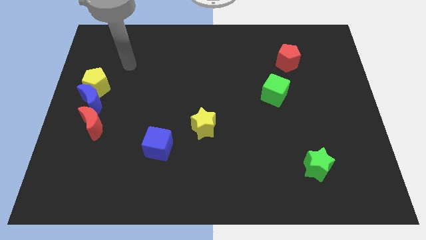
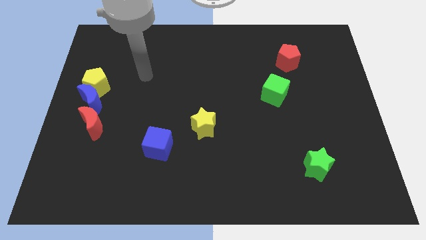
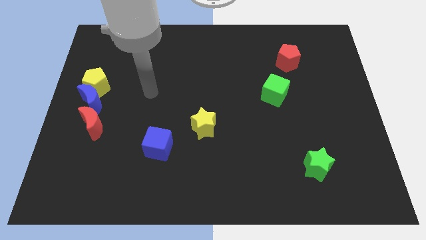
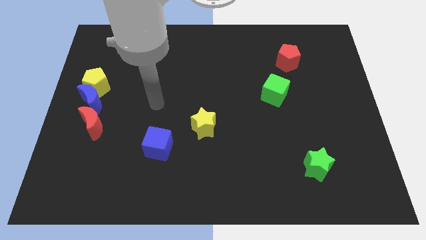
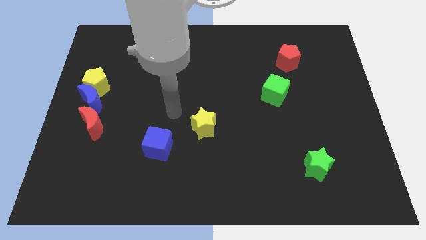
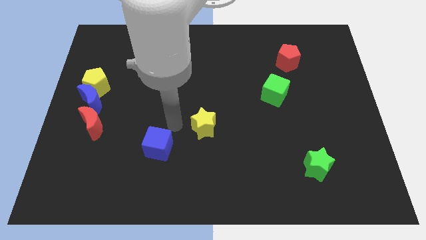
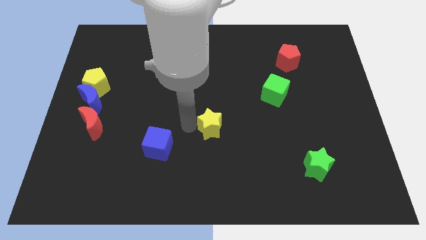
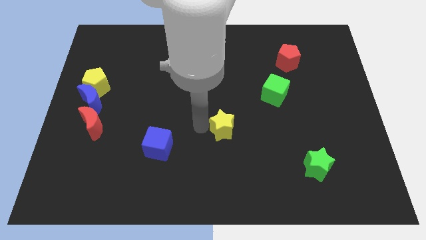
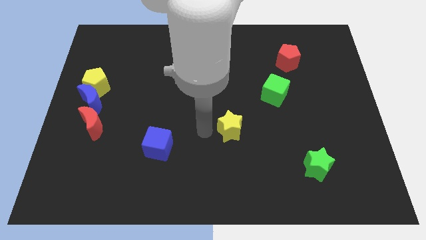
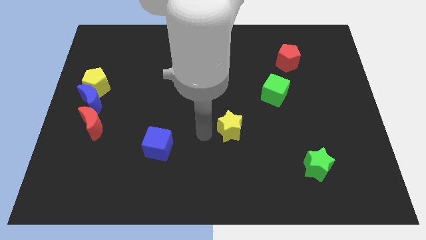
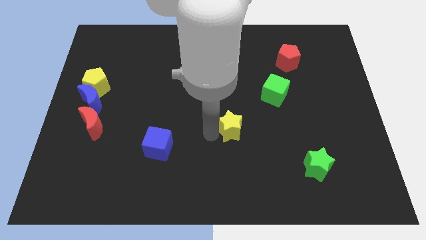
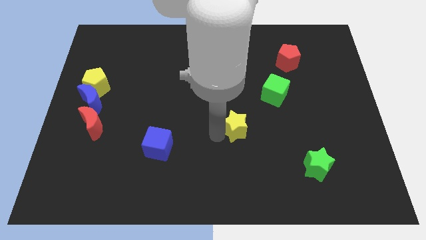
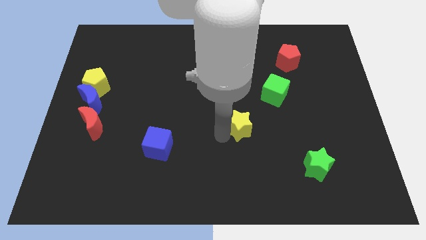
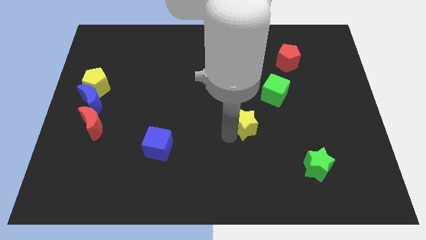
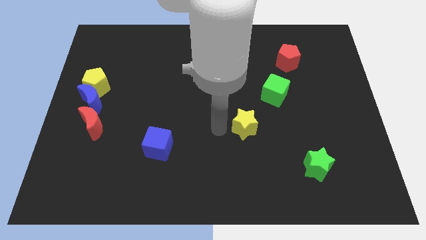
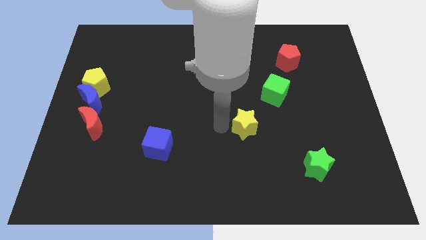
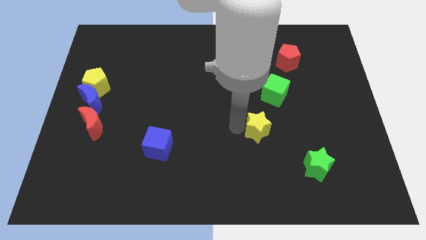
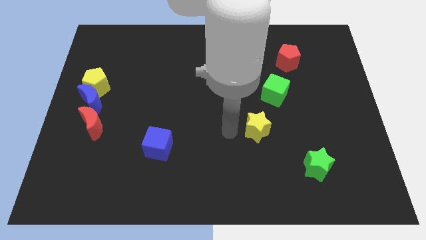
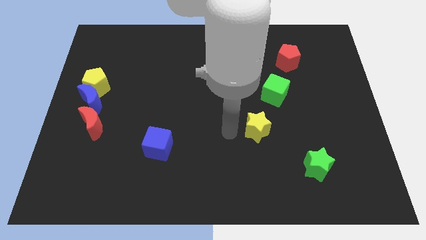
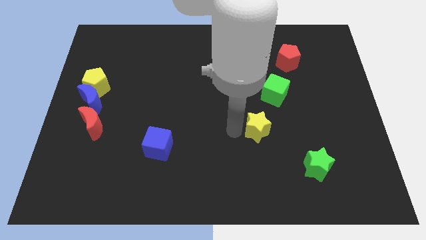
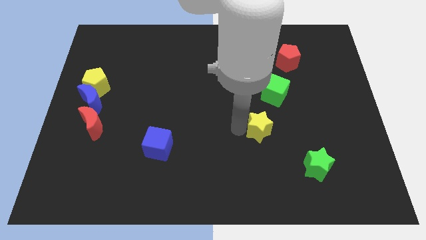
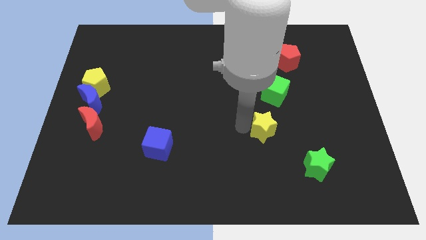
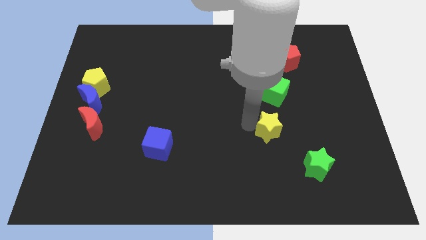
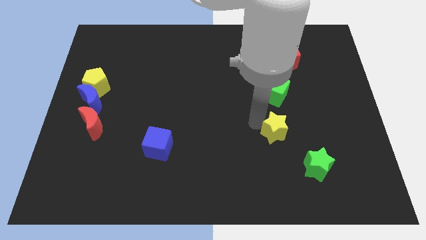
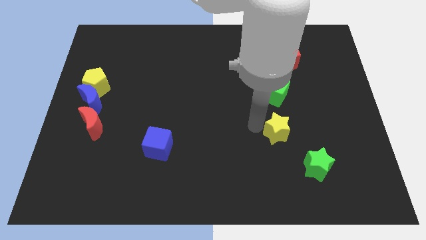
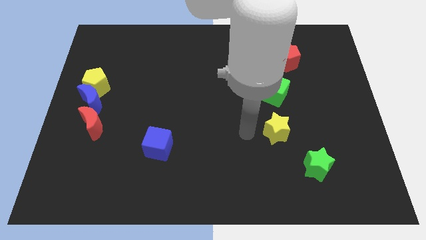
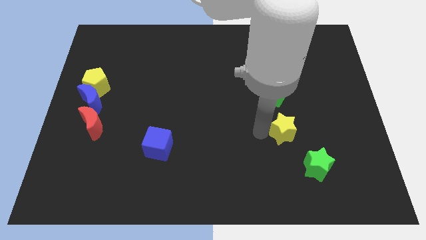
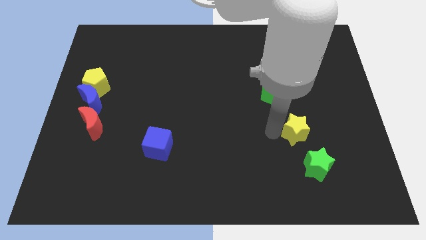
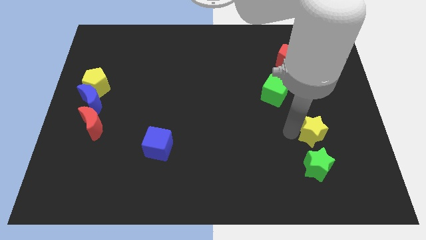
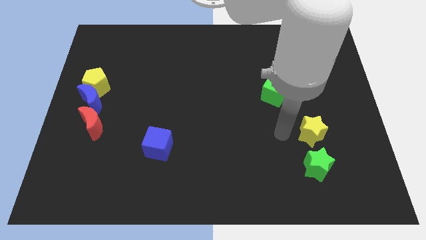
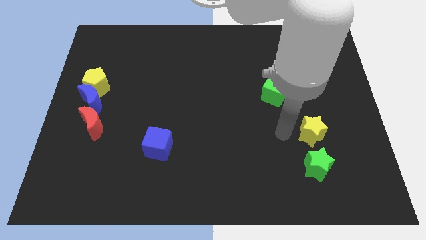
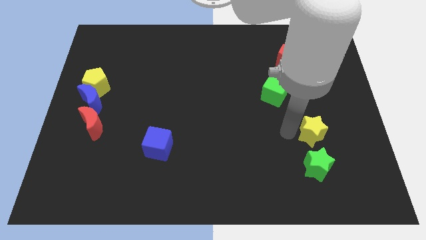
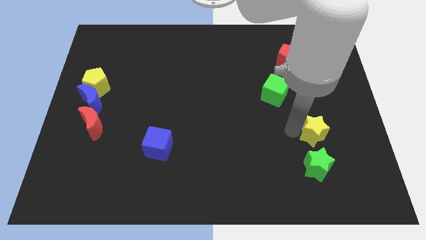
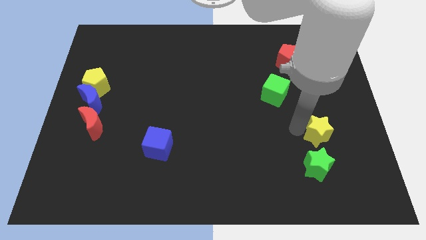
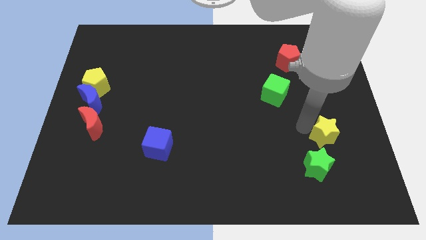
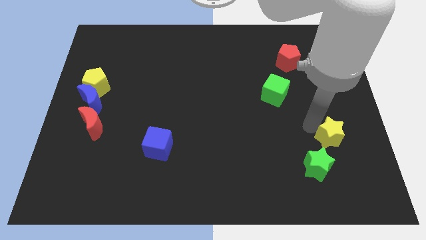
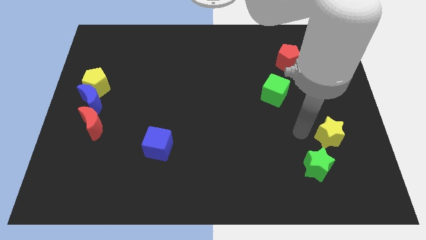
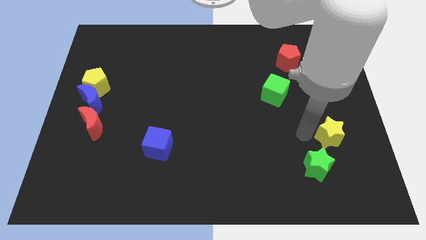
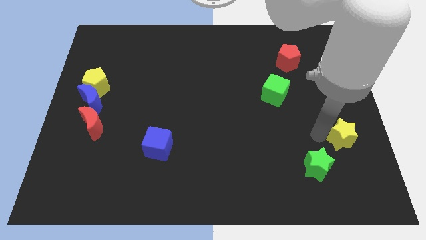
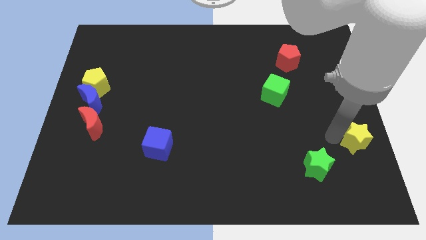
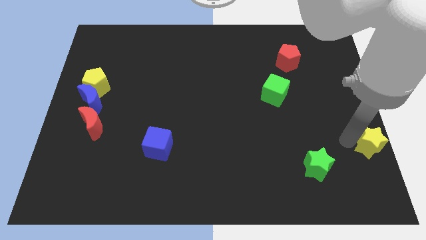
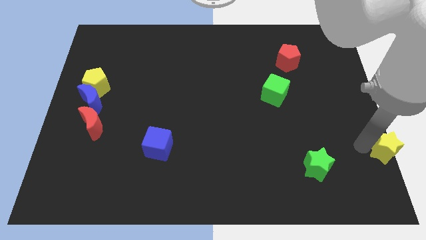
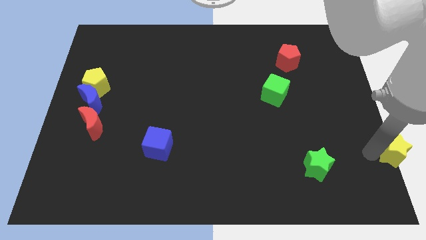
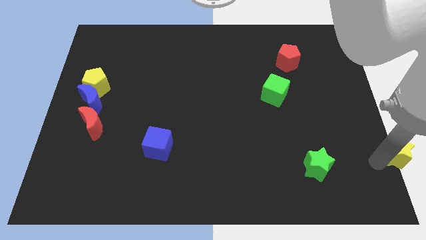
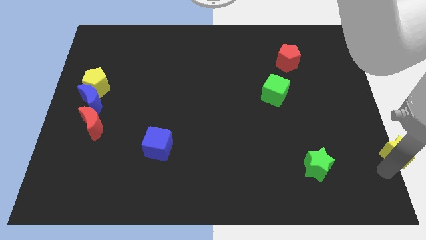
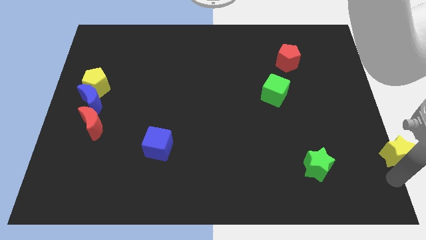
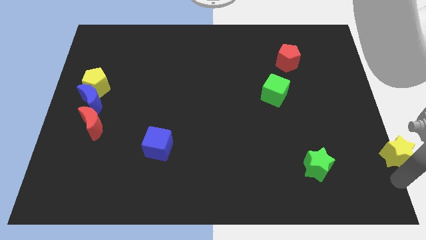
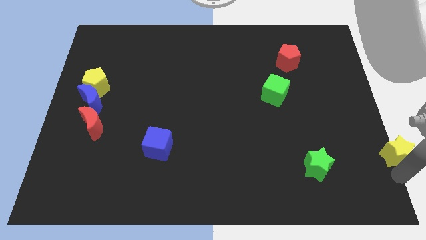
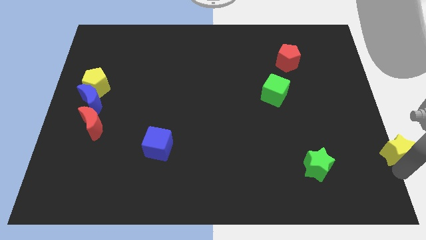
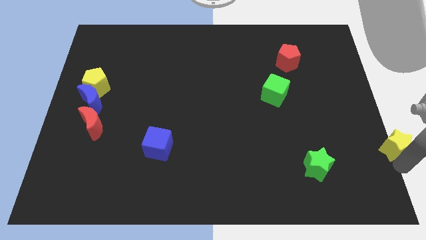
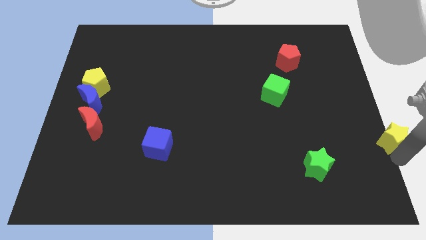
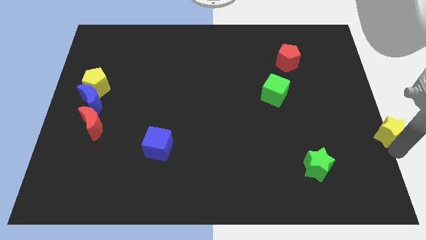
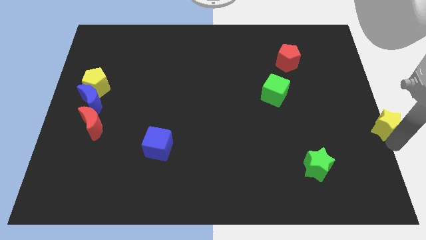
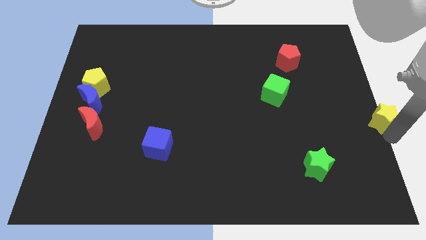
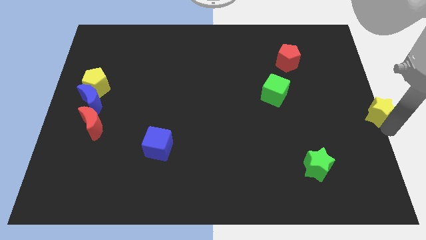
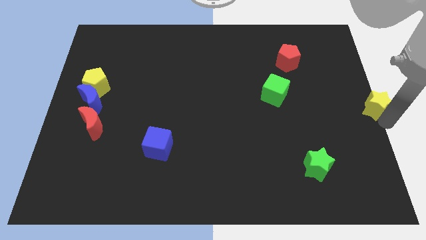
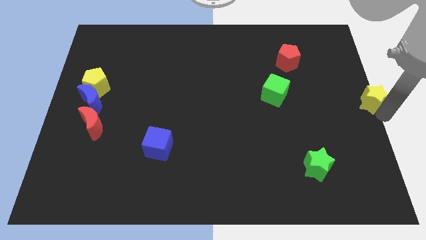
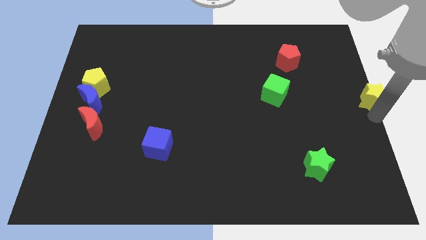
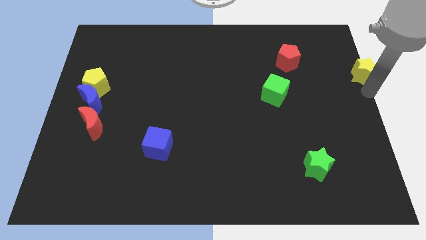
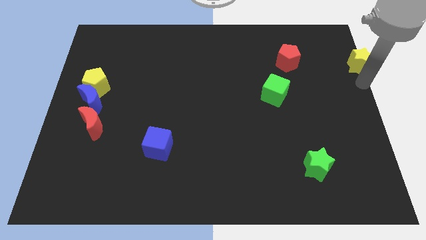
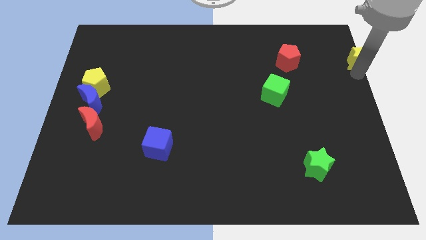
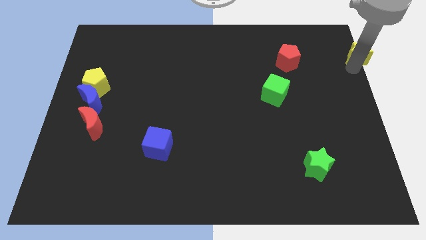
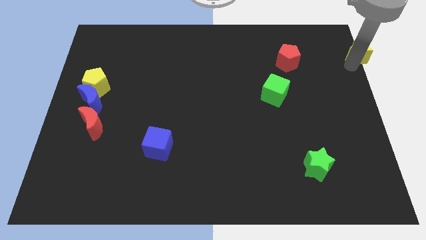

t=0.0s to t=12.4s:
move the yellow star to the top right of the board

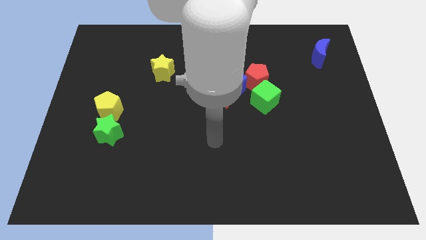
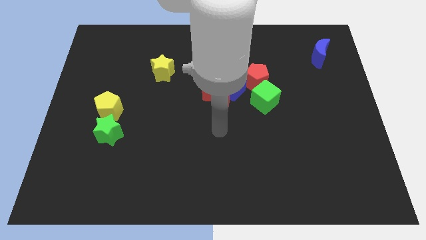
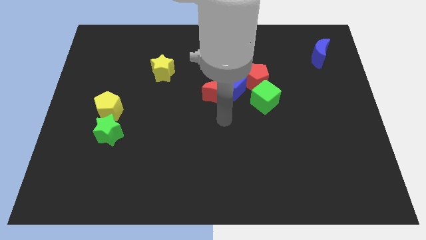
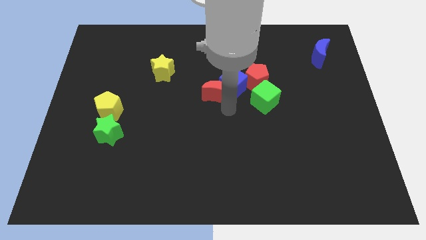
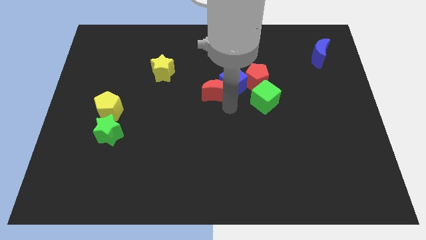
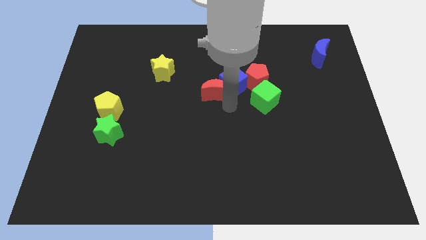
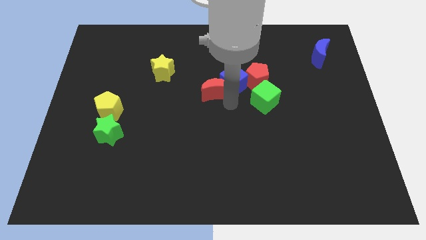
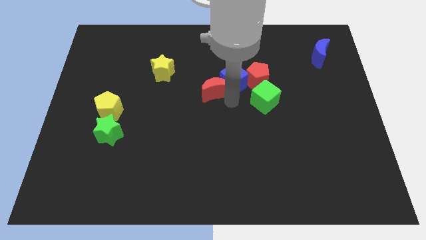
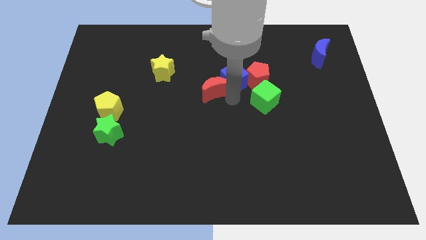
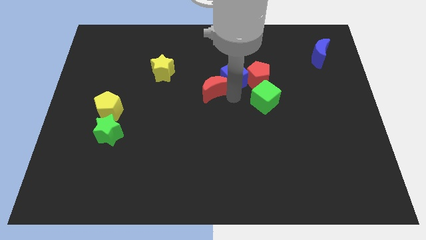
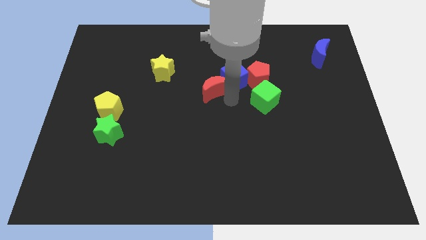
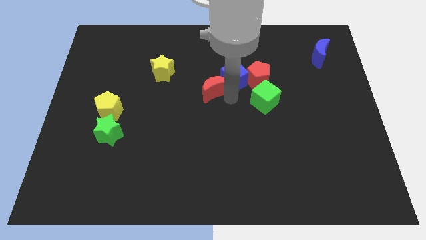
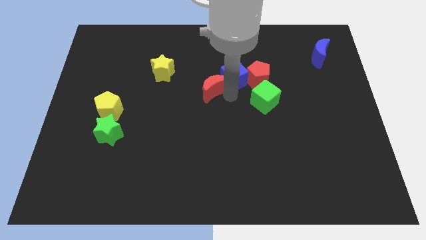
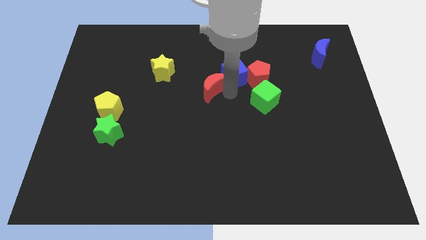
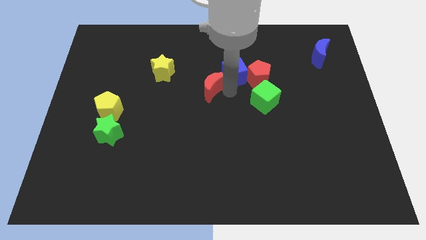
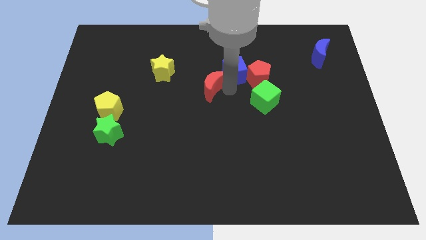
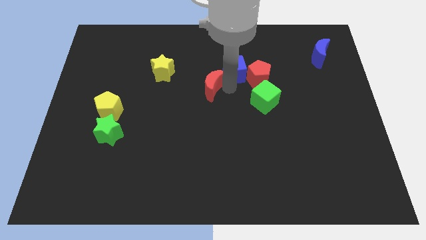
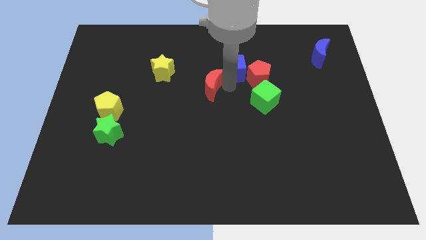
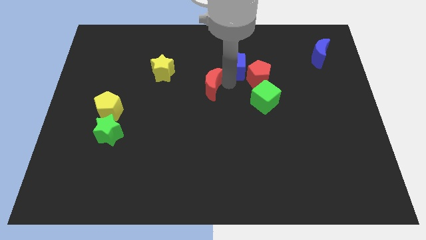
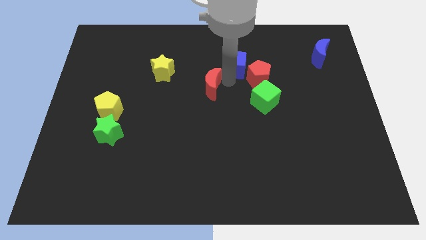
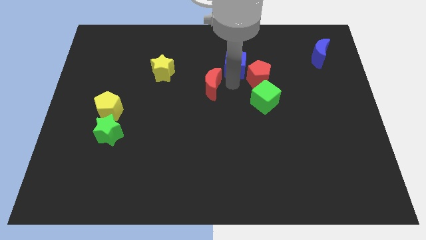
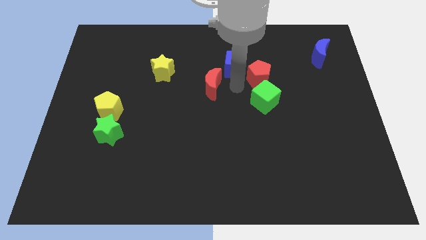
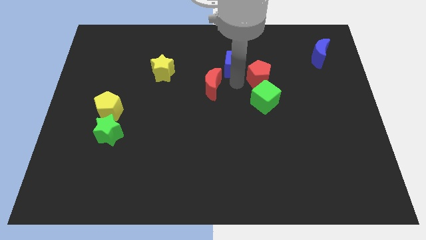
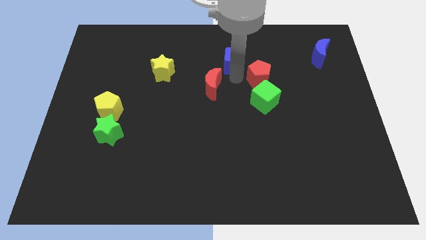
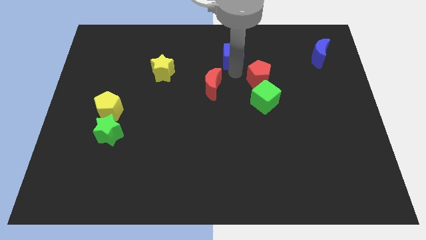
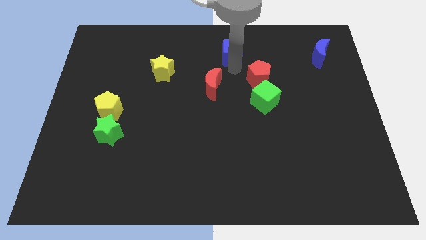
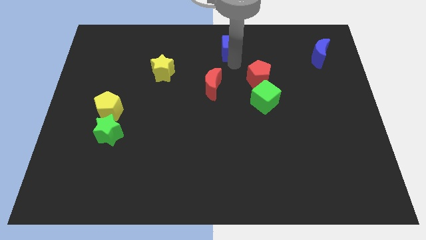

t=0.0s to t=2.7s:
put the blue cube to the top side
